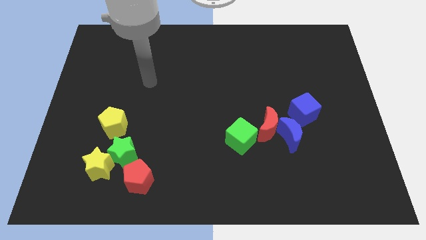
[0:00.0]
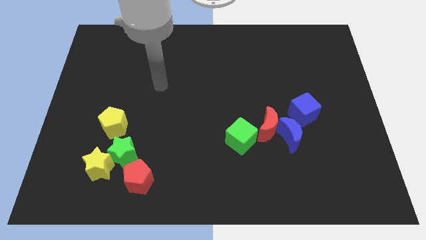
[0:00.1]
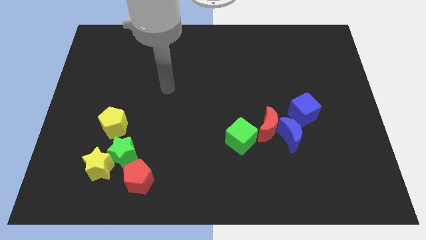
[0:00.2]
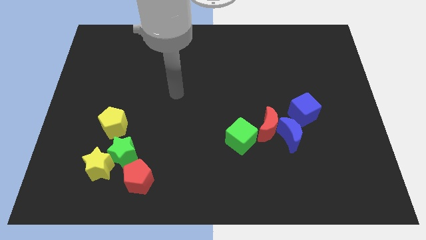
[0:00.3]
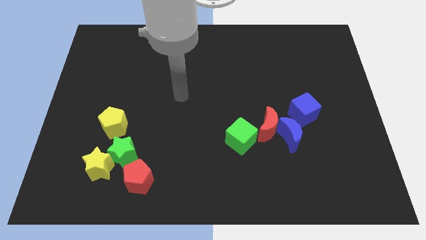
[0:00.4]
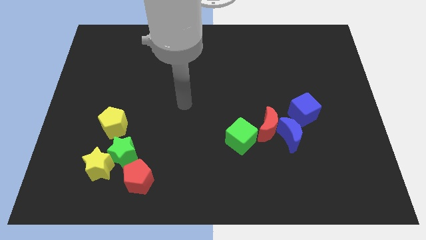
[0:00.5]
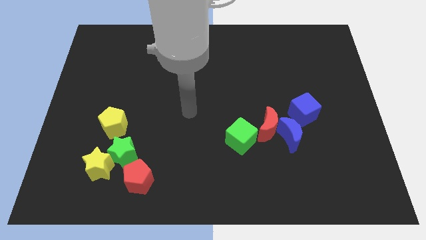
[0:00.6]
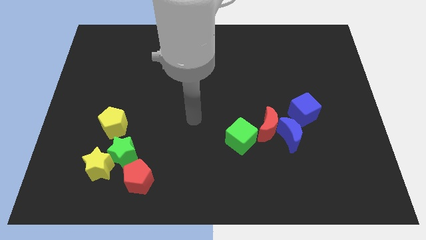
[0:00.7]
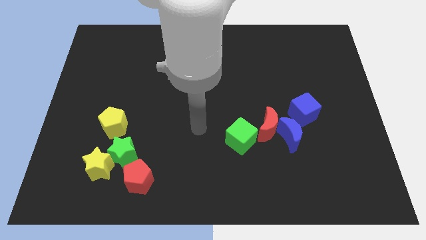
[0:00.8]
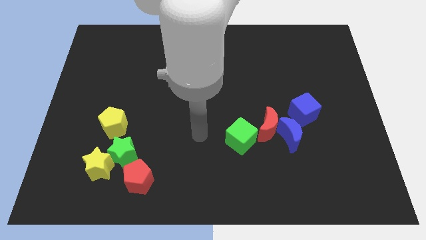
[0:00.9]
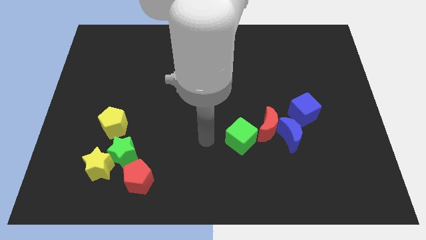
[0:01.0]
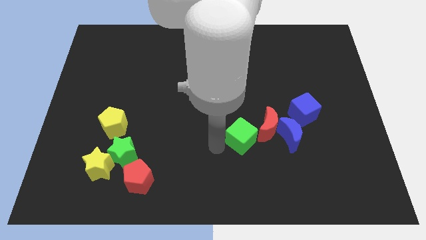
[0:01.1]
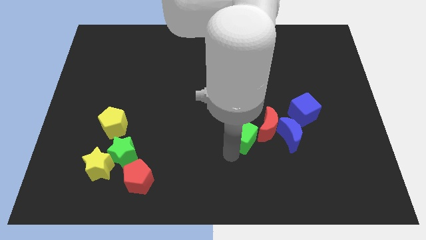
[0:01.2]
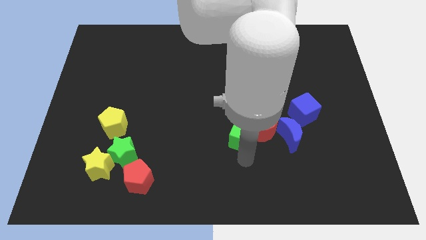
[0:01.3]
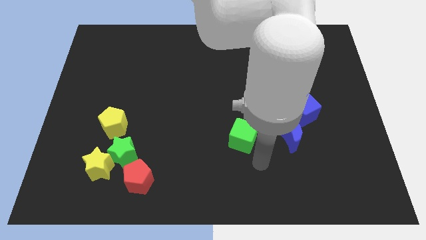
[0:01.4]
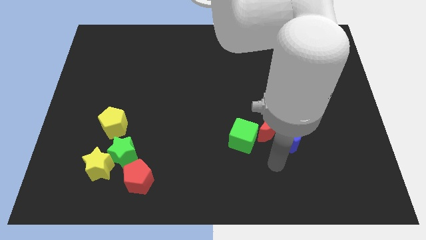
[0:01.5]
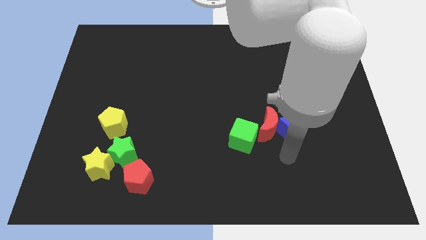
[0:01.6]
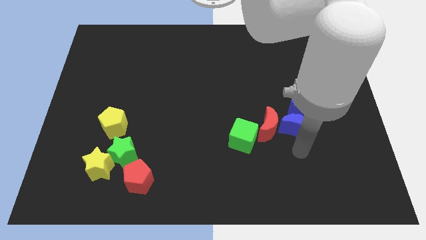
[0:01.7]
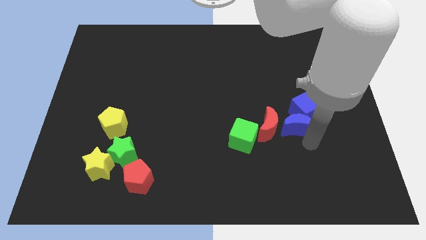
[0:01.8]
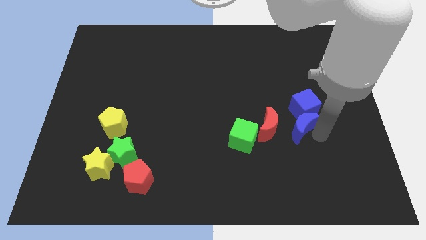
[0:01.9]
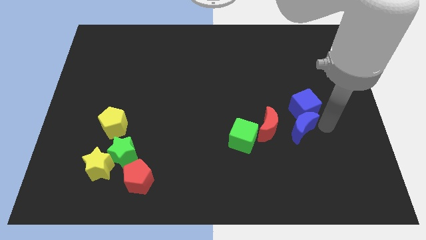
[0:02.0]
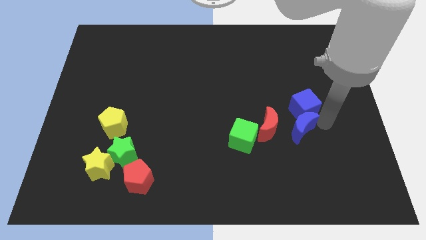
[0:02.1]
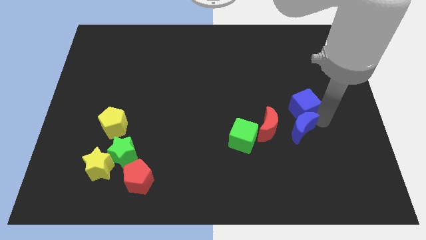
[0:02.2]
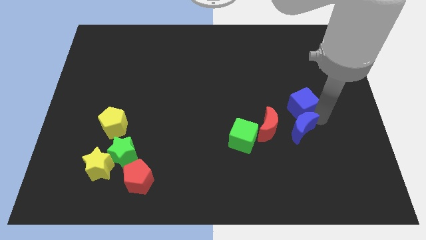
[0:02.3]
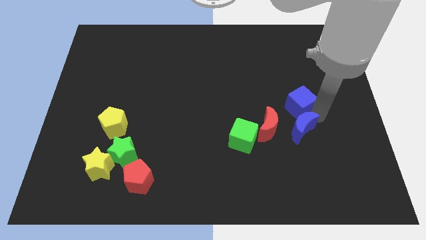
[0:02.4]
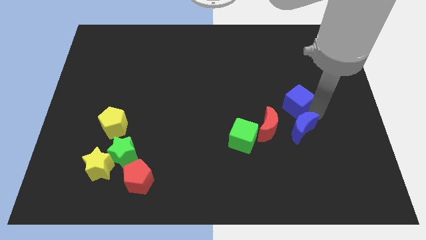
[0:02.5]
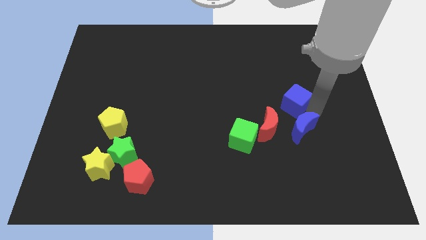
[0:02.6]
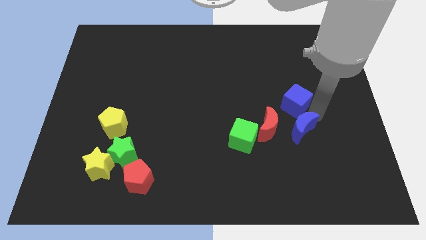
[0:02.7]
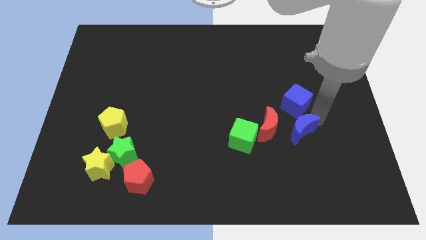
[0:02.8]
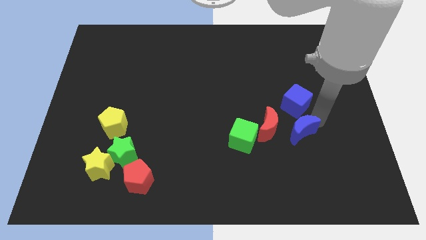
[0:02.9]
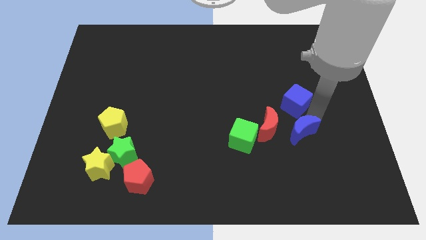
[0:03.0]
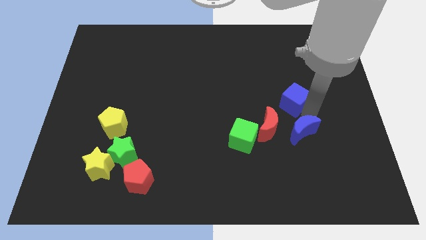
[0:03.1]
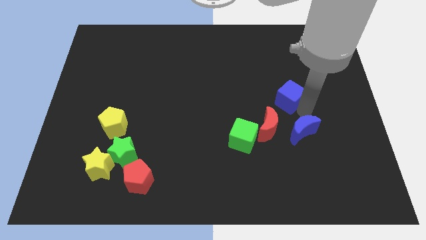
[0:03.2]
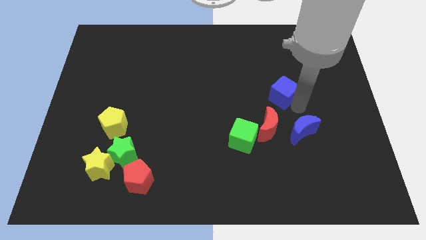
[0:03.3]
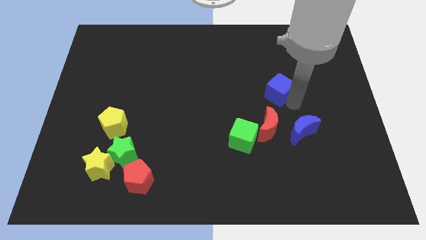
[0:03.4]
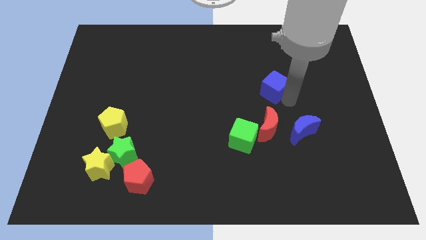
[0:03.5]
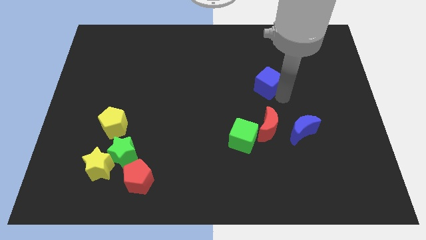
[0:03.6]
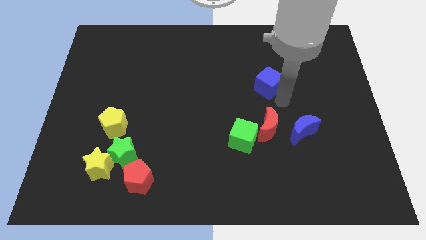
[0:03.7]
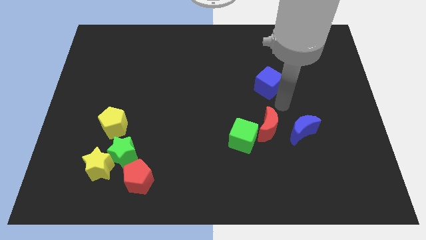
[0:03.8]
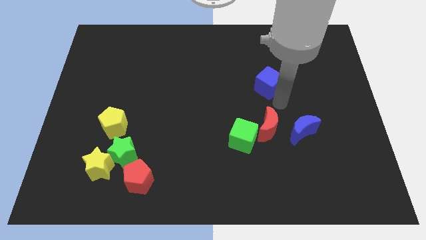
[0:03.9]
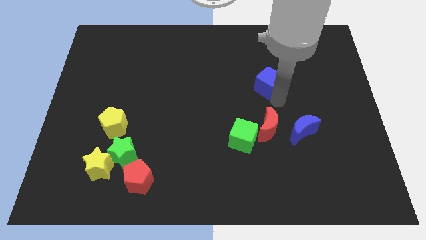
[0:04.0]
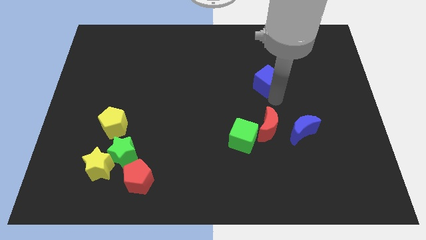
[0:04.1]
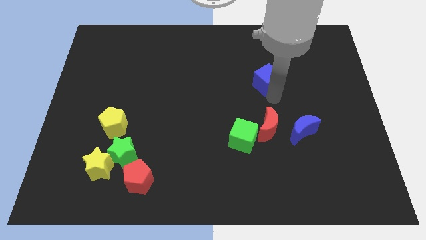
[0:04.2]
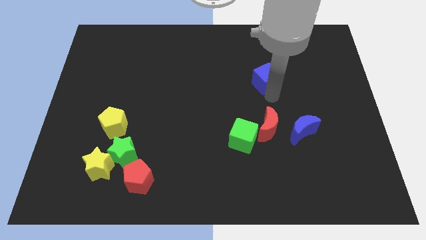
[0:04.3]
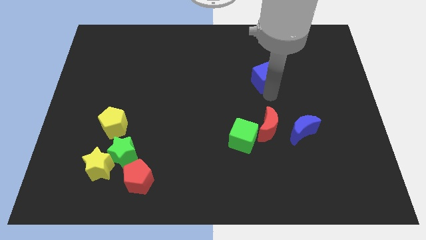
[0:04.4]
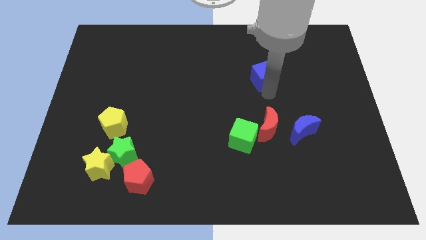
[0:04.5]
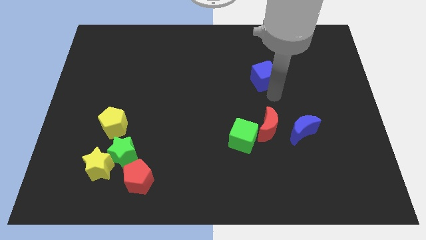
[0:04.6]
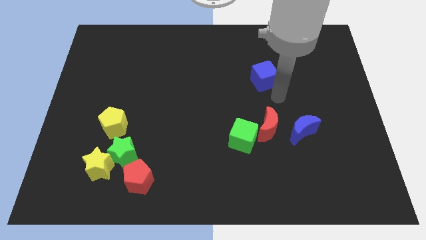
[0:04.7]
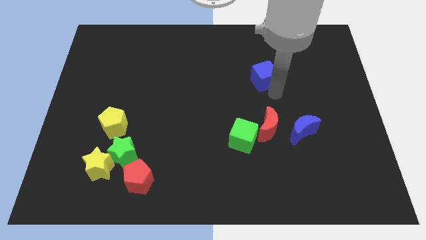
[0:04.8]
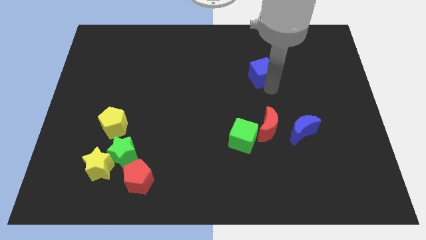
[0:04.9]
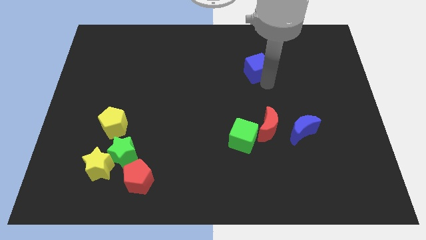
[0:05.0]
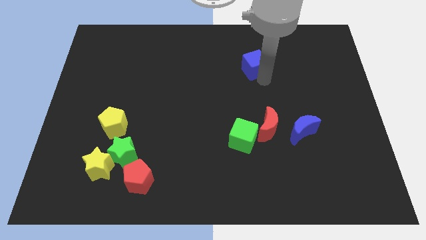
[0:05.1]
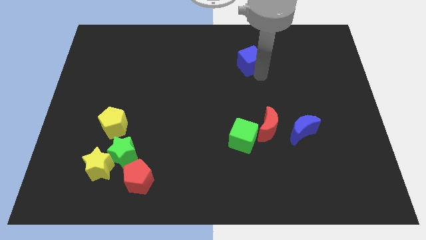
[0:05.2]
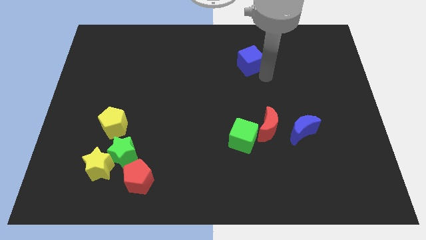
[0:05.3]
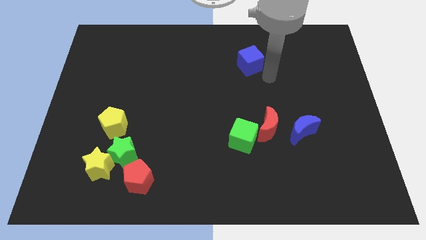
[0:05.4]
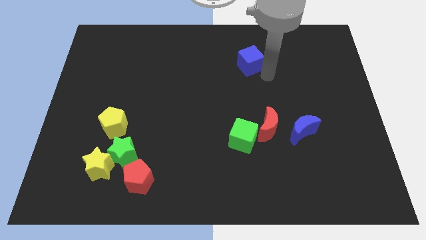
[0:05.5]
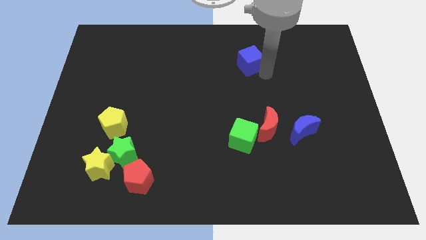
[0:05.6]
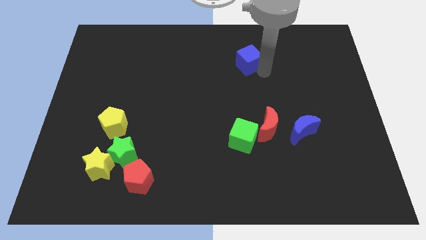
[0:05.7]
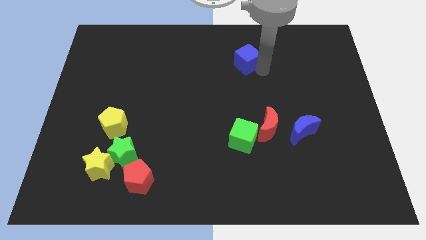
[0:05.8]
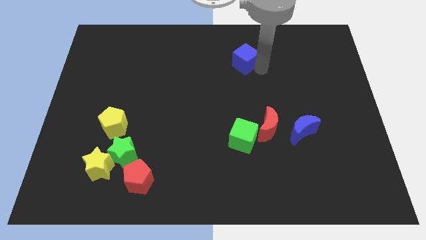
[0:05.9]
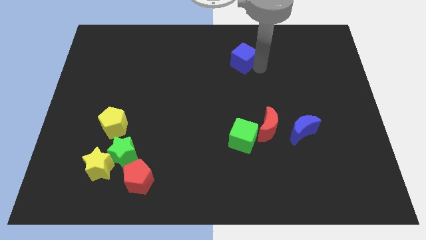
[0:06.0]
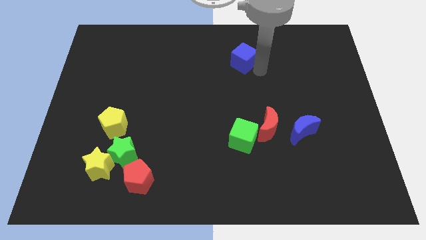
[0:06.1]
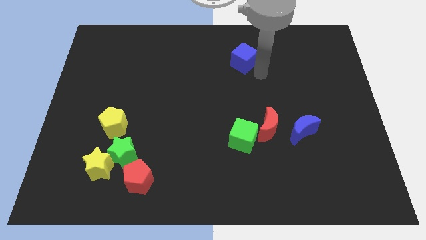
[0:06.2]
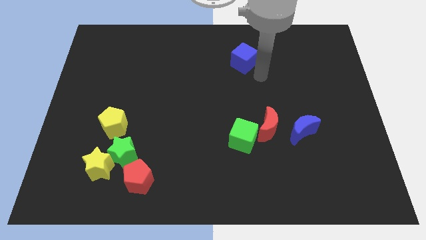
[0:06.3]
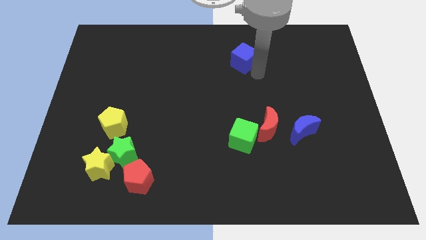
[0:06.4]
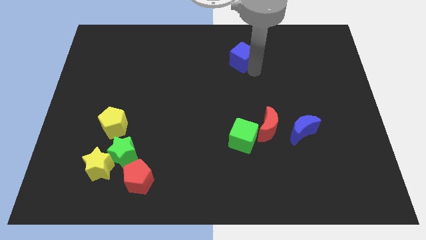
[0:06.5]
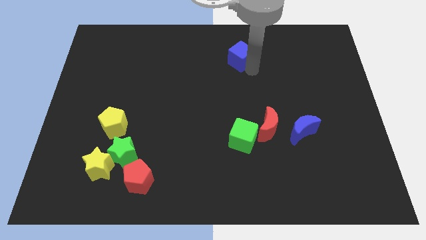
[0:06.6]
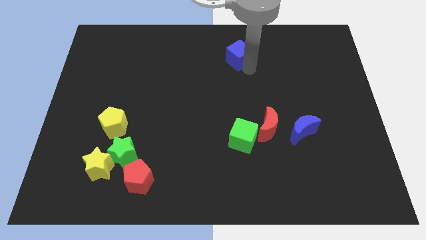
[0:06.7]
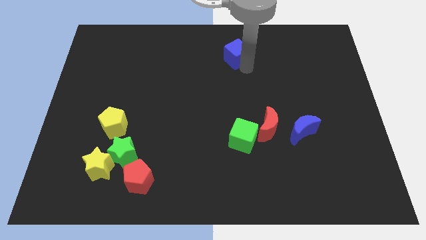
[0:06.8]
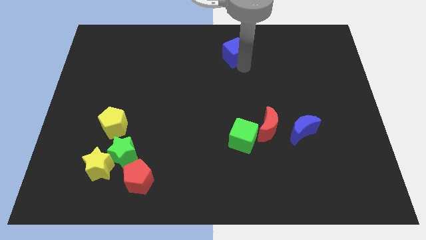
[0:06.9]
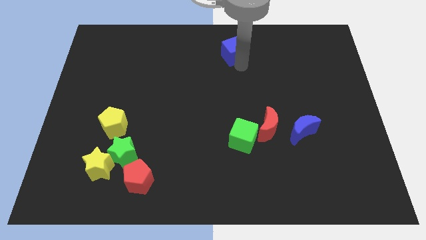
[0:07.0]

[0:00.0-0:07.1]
put the blue cube to the top side
